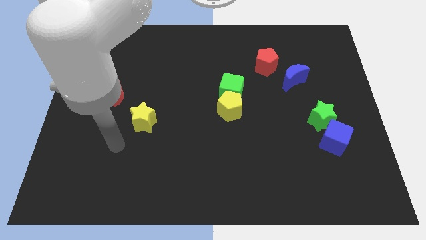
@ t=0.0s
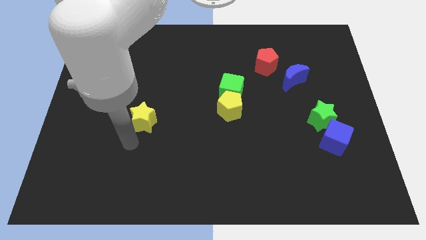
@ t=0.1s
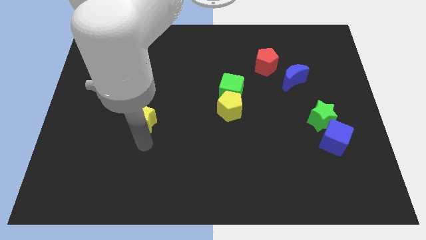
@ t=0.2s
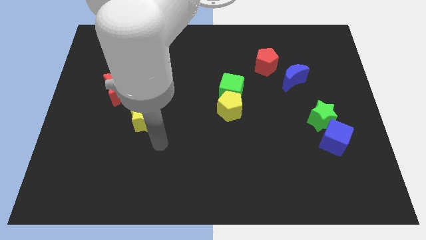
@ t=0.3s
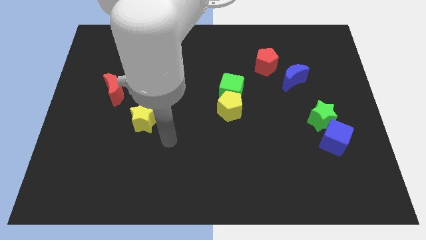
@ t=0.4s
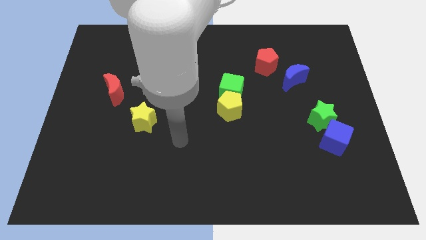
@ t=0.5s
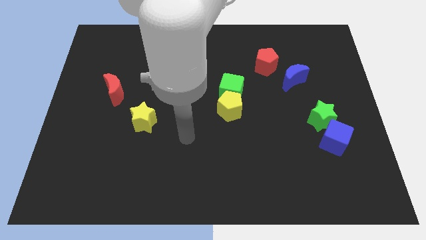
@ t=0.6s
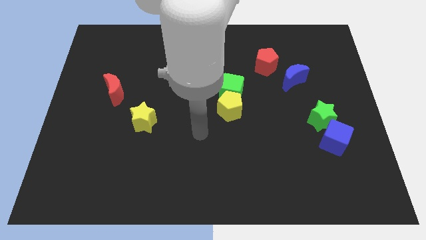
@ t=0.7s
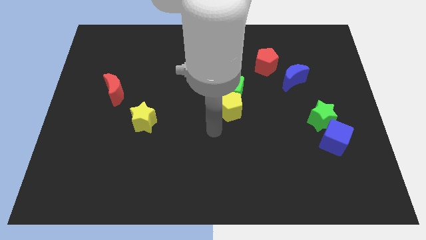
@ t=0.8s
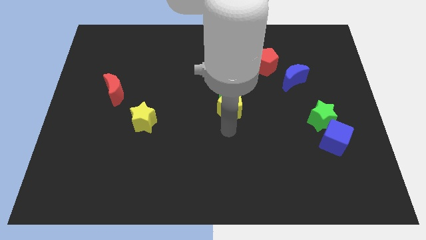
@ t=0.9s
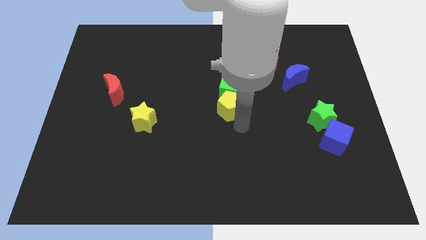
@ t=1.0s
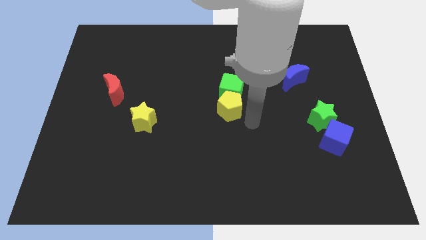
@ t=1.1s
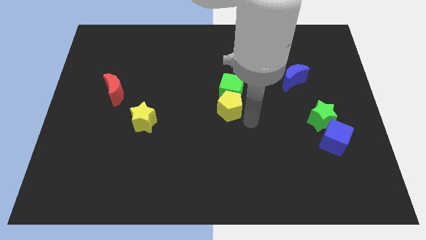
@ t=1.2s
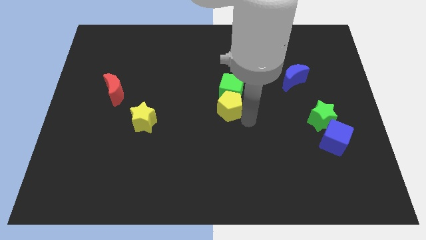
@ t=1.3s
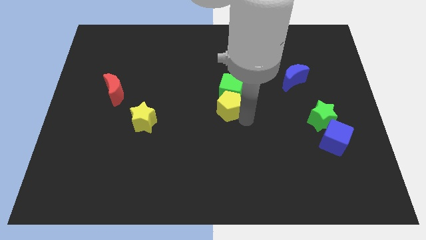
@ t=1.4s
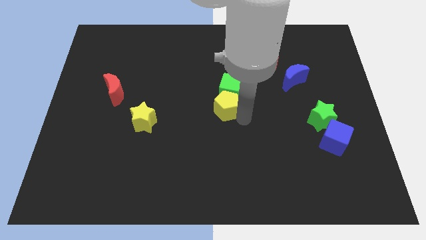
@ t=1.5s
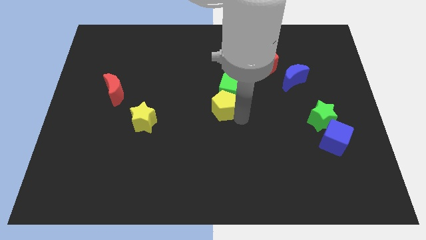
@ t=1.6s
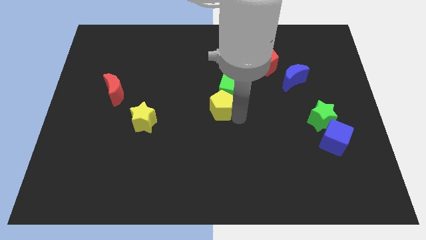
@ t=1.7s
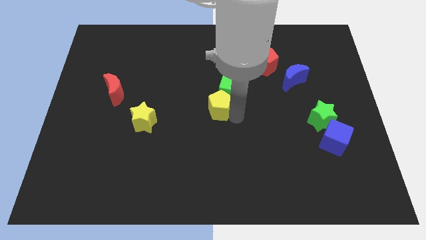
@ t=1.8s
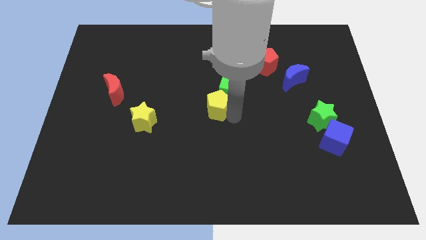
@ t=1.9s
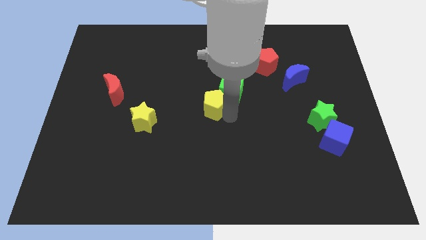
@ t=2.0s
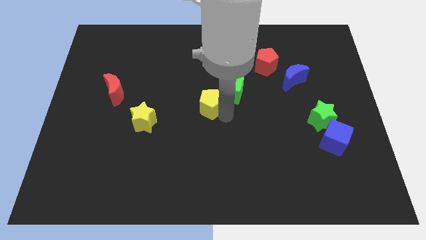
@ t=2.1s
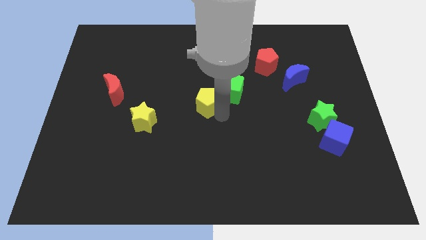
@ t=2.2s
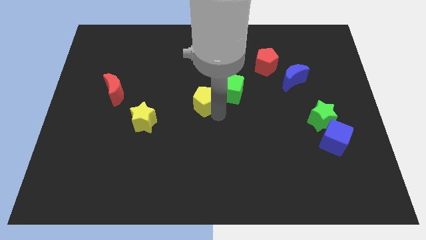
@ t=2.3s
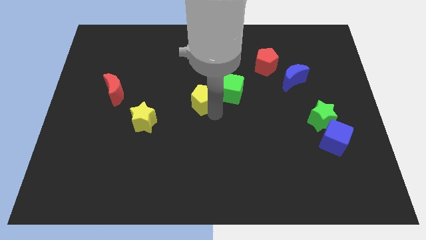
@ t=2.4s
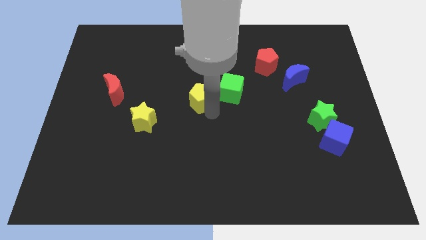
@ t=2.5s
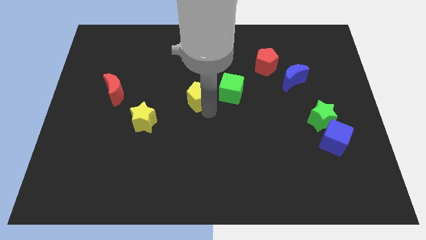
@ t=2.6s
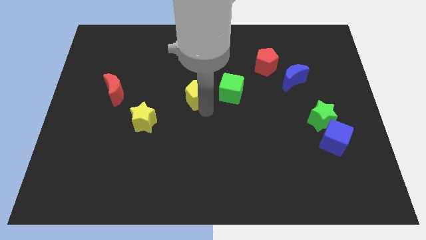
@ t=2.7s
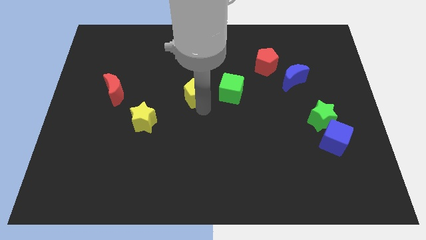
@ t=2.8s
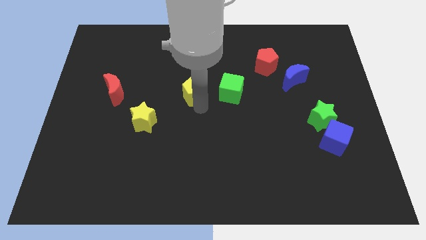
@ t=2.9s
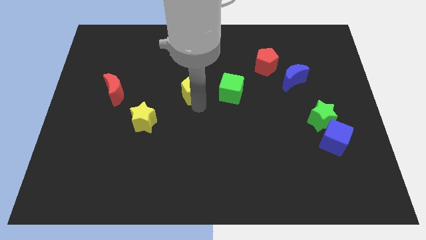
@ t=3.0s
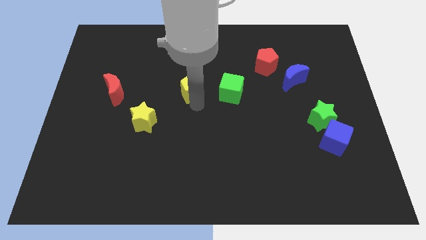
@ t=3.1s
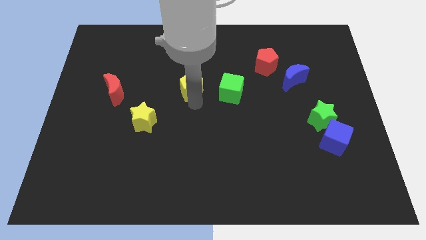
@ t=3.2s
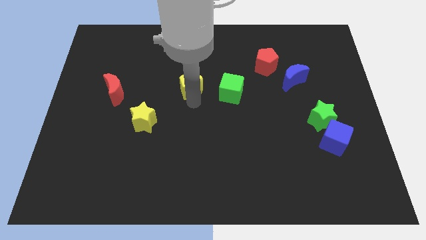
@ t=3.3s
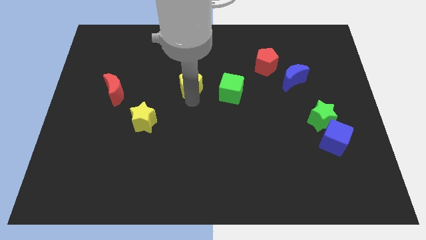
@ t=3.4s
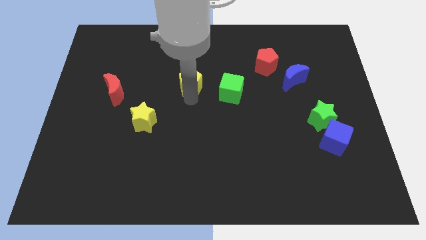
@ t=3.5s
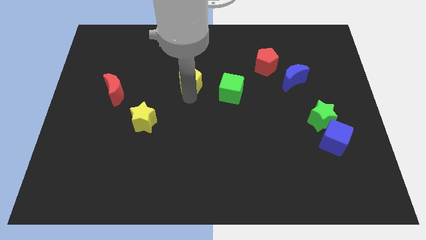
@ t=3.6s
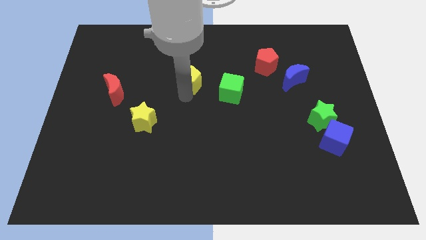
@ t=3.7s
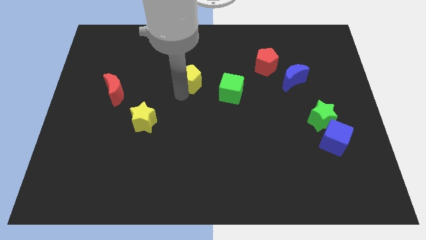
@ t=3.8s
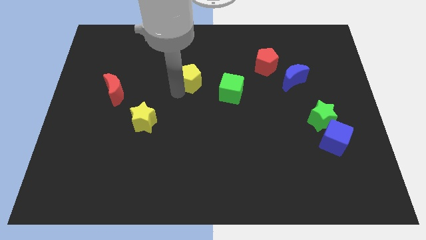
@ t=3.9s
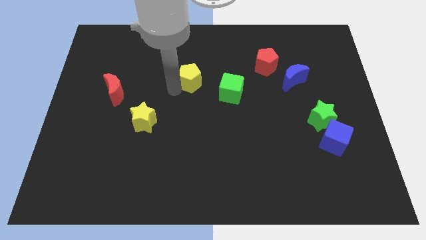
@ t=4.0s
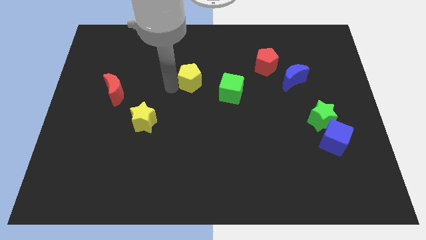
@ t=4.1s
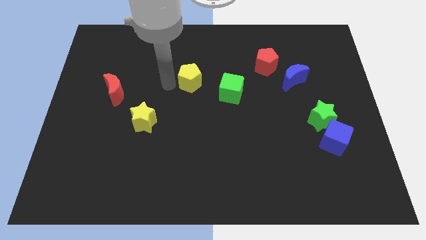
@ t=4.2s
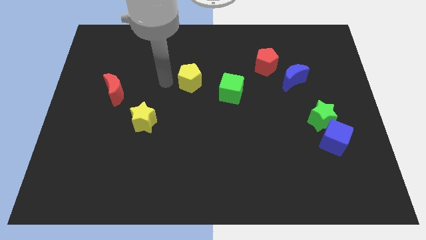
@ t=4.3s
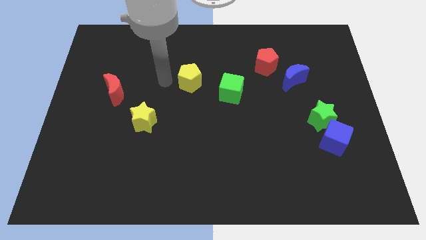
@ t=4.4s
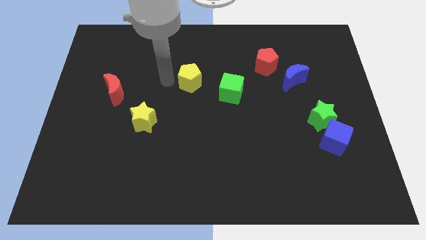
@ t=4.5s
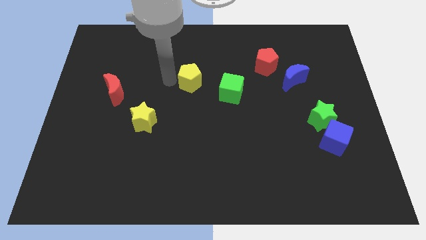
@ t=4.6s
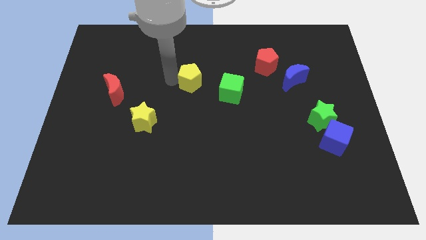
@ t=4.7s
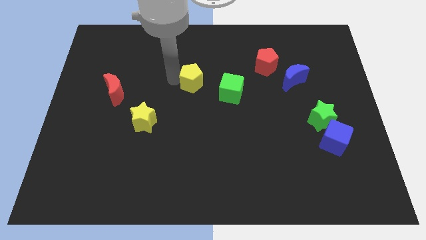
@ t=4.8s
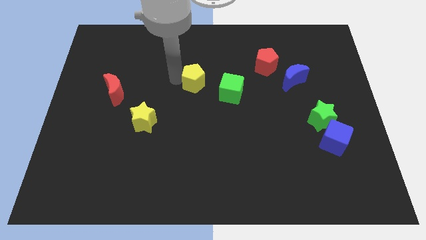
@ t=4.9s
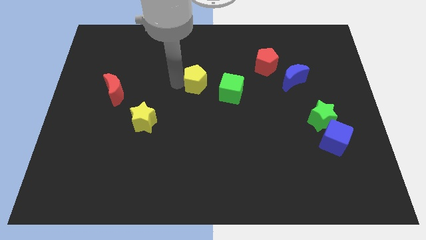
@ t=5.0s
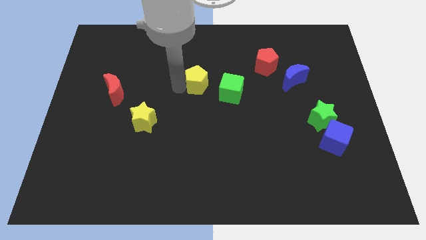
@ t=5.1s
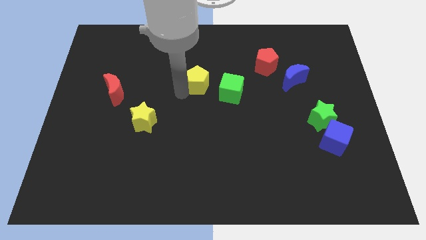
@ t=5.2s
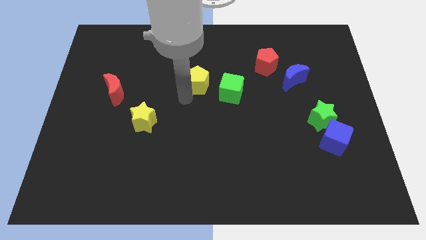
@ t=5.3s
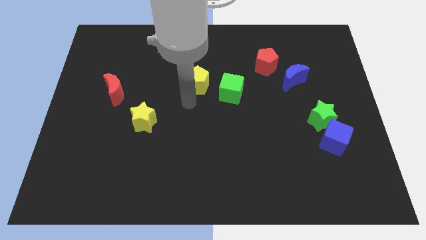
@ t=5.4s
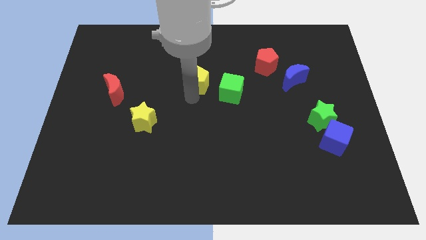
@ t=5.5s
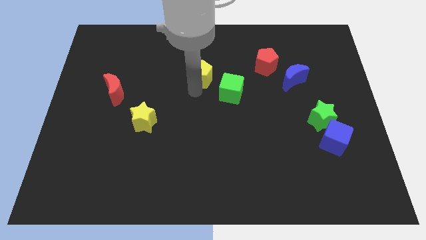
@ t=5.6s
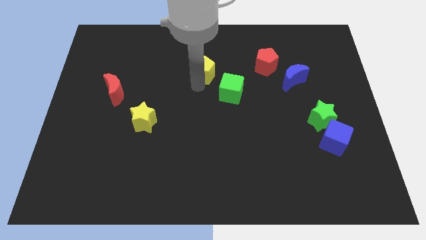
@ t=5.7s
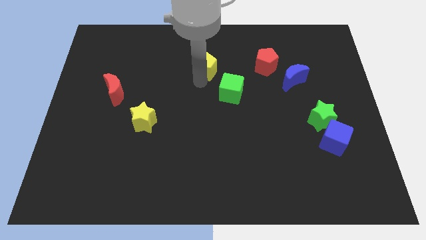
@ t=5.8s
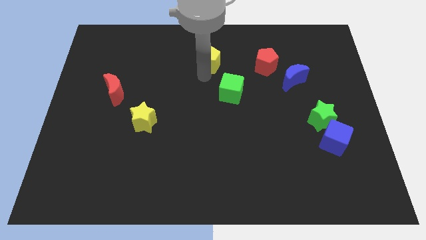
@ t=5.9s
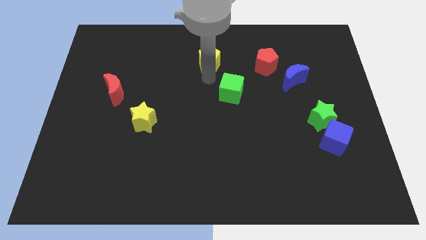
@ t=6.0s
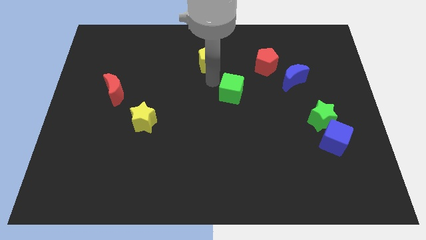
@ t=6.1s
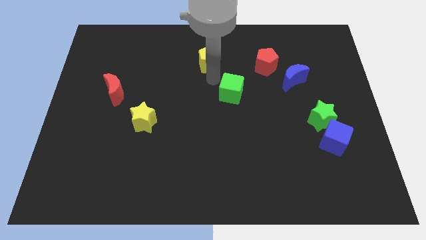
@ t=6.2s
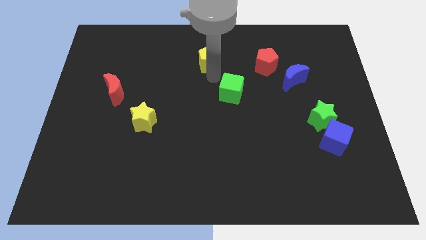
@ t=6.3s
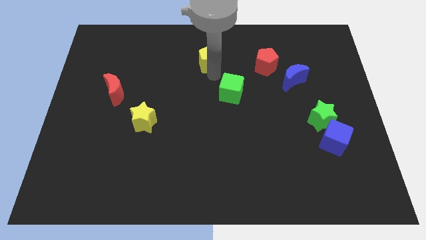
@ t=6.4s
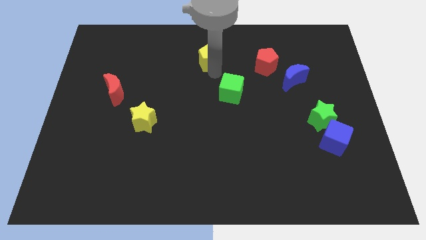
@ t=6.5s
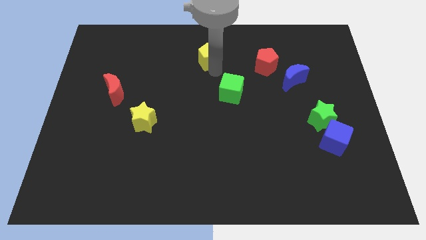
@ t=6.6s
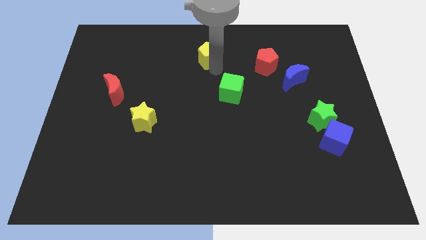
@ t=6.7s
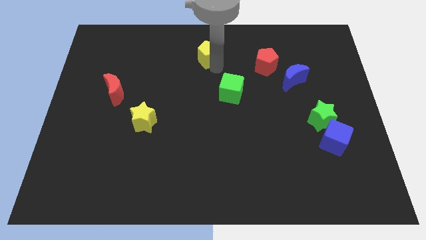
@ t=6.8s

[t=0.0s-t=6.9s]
slide the yellow pentagon to the top

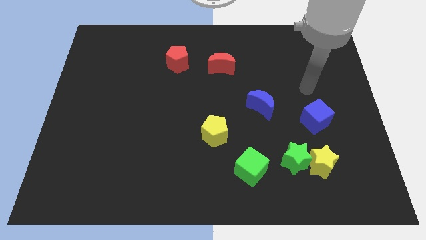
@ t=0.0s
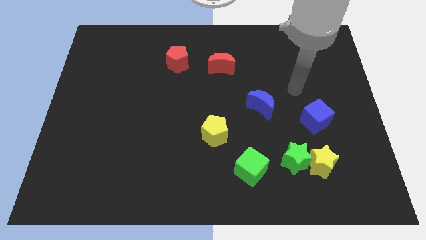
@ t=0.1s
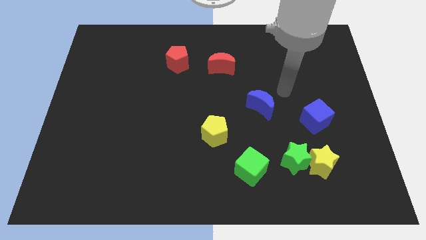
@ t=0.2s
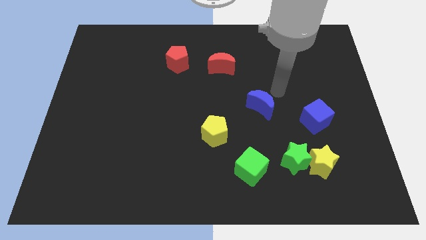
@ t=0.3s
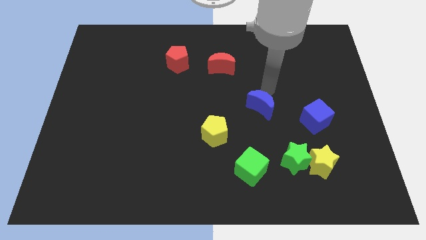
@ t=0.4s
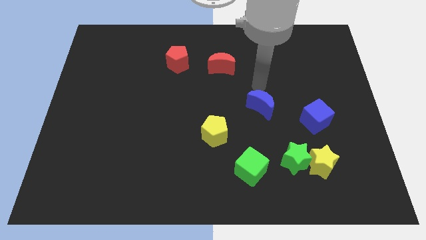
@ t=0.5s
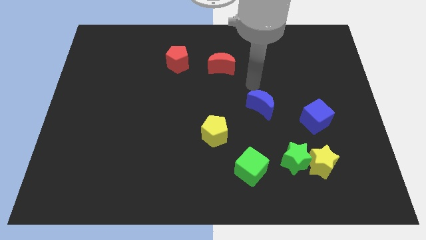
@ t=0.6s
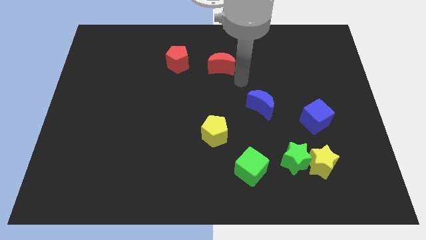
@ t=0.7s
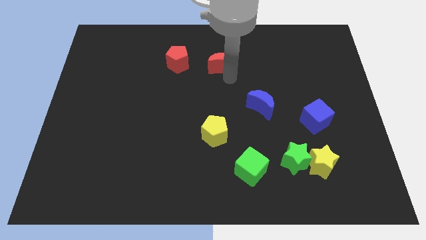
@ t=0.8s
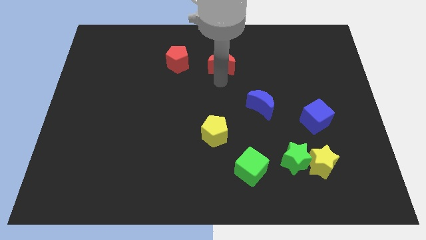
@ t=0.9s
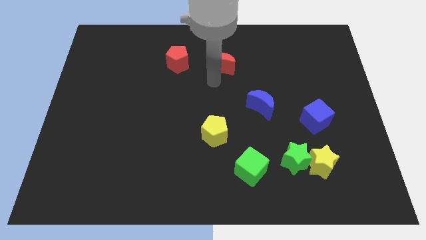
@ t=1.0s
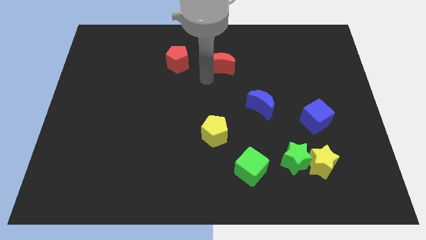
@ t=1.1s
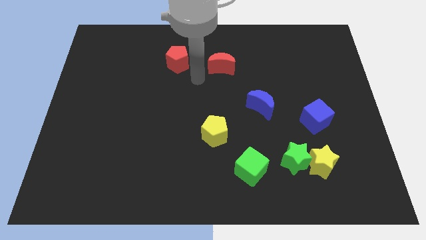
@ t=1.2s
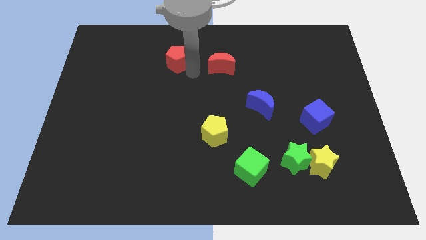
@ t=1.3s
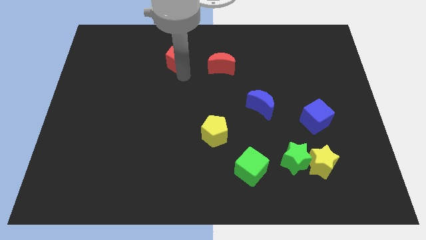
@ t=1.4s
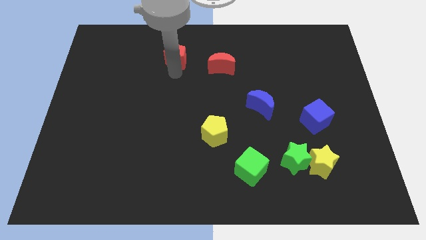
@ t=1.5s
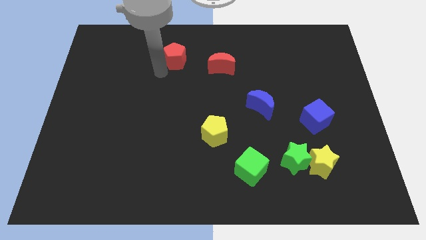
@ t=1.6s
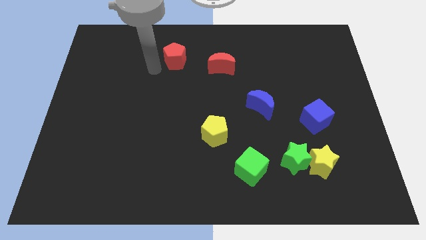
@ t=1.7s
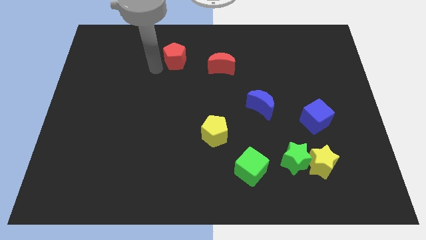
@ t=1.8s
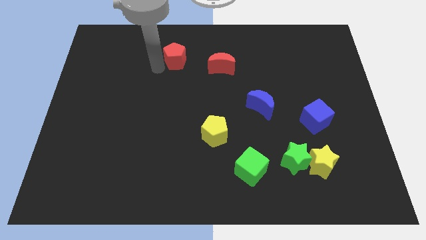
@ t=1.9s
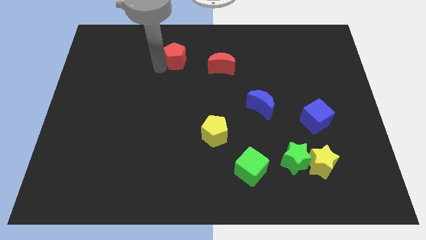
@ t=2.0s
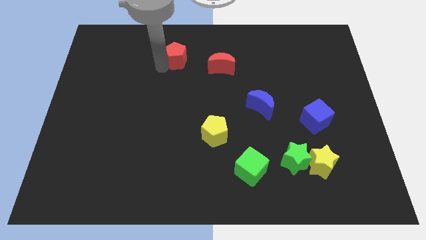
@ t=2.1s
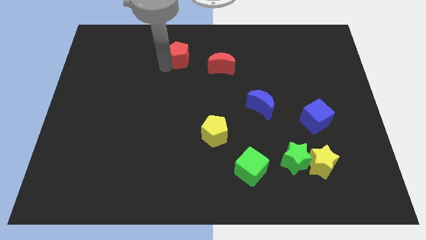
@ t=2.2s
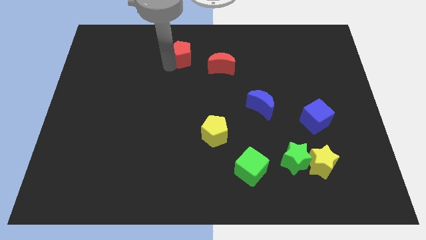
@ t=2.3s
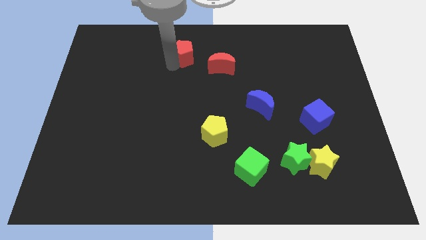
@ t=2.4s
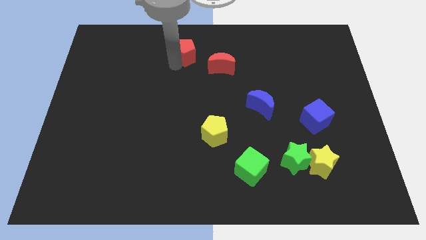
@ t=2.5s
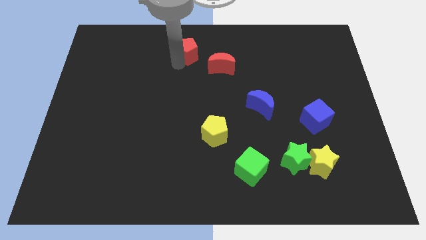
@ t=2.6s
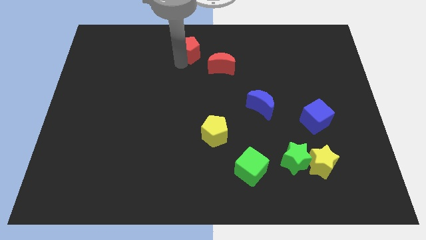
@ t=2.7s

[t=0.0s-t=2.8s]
put the red pentagon to the top
